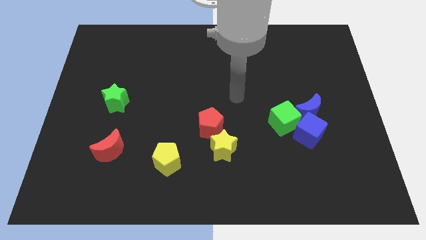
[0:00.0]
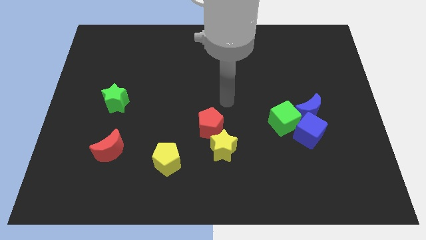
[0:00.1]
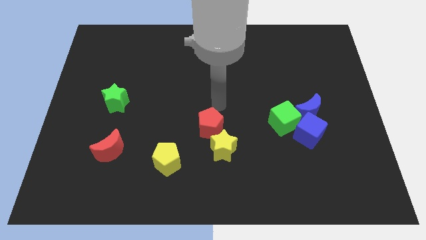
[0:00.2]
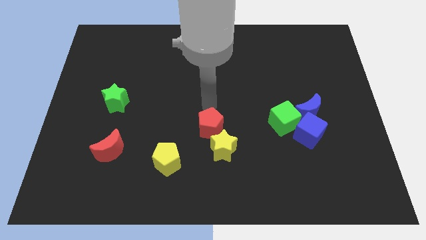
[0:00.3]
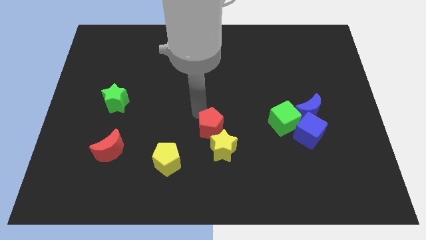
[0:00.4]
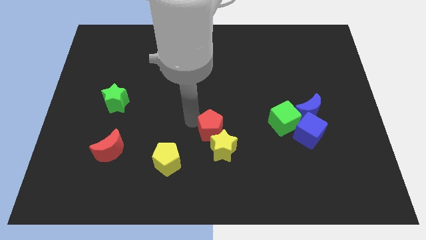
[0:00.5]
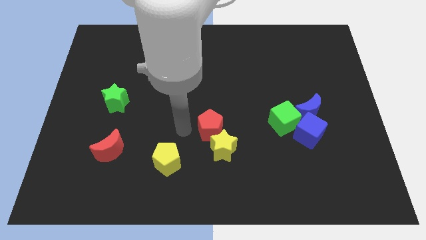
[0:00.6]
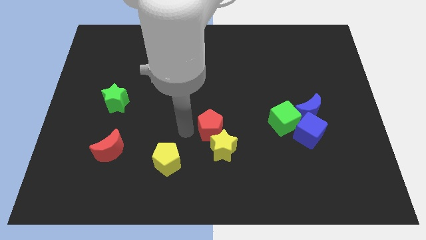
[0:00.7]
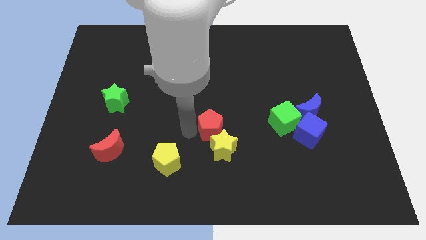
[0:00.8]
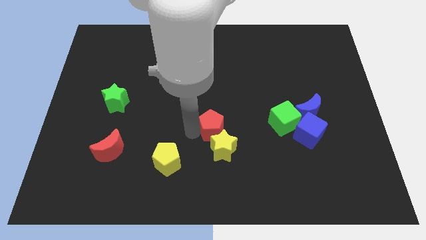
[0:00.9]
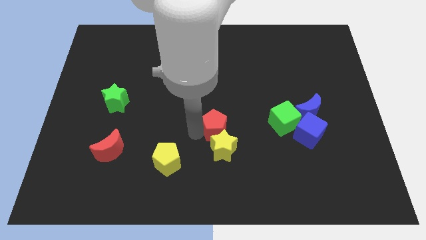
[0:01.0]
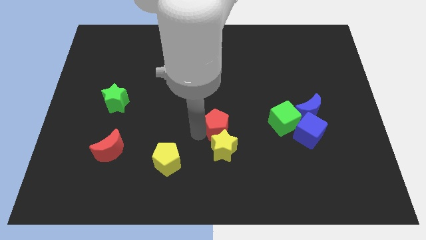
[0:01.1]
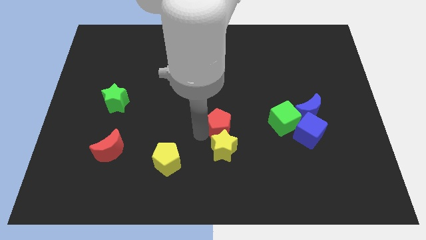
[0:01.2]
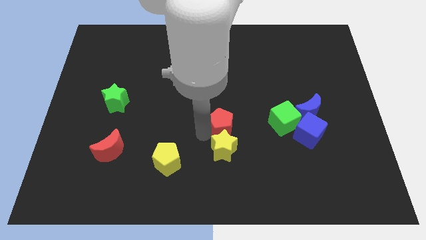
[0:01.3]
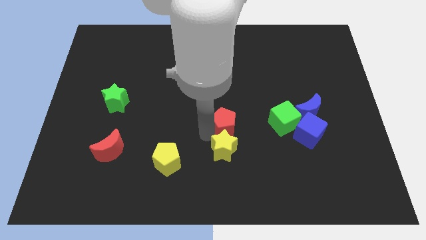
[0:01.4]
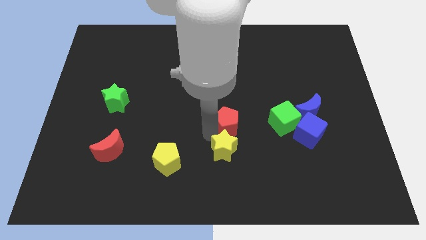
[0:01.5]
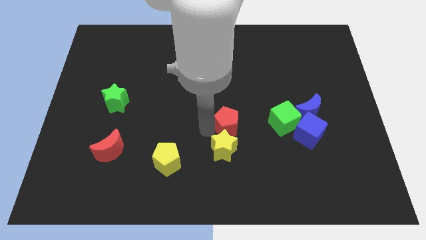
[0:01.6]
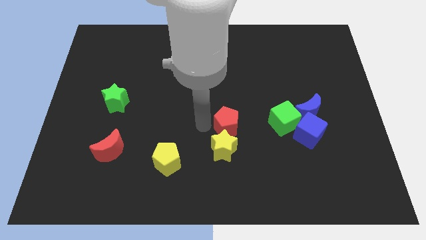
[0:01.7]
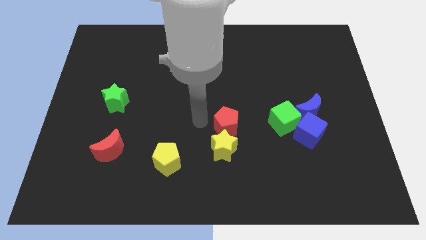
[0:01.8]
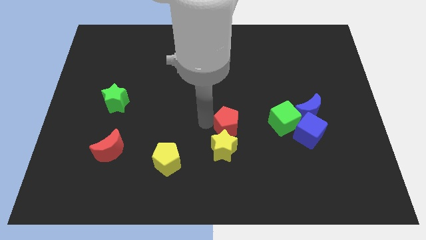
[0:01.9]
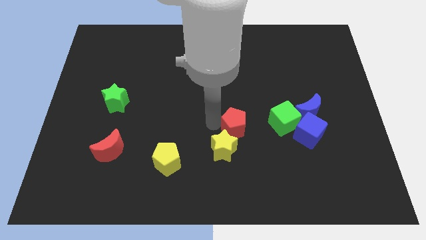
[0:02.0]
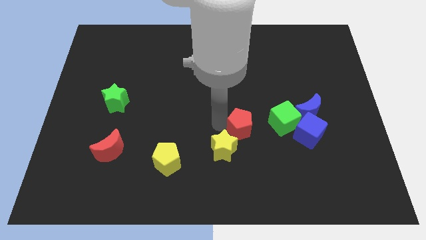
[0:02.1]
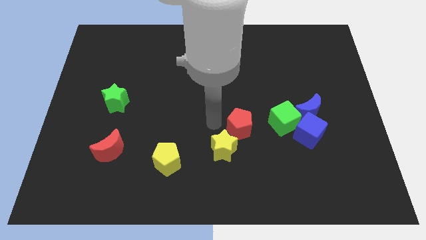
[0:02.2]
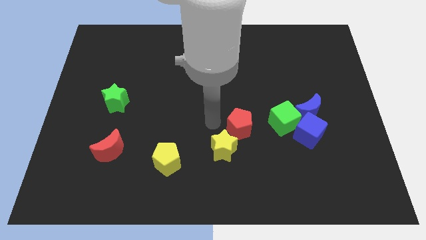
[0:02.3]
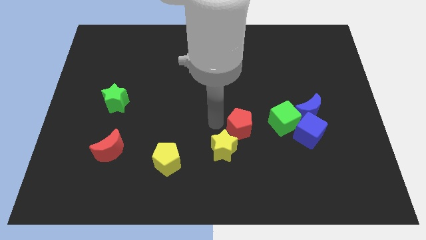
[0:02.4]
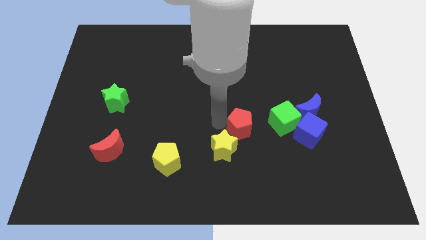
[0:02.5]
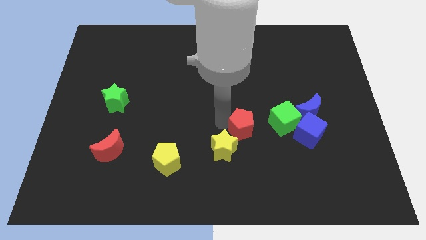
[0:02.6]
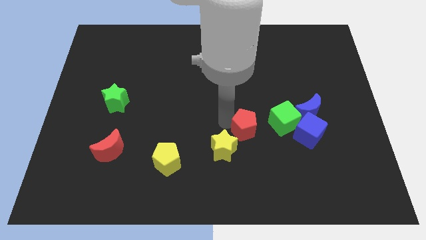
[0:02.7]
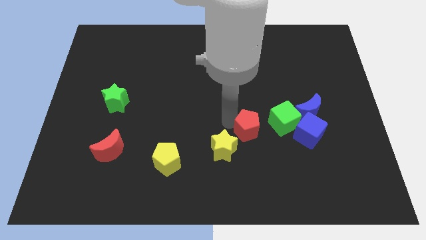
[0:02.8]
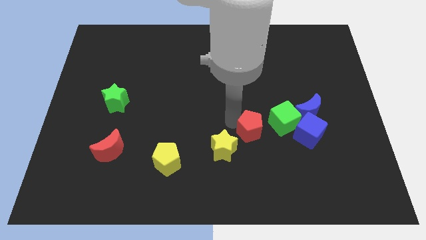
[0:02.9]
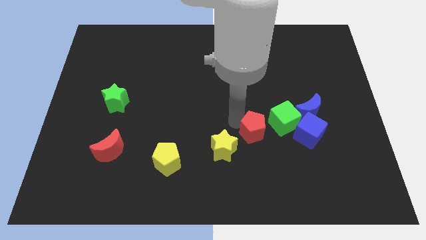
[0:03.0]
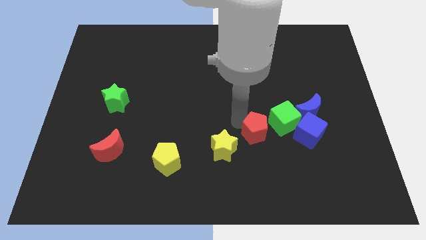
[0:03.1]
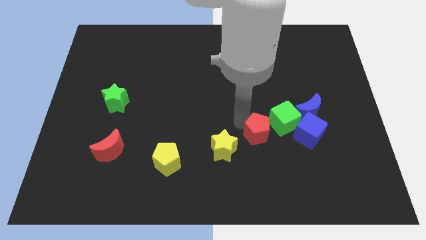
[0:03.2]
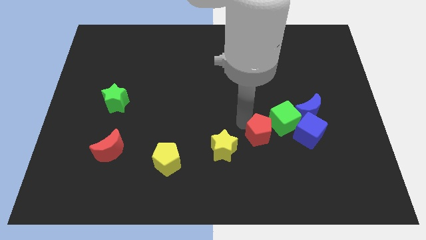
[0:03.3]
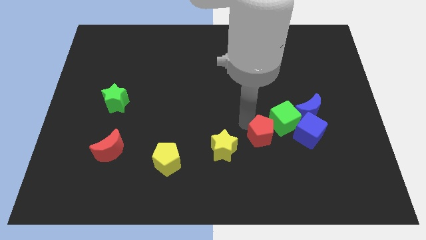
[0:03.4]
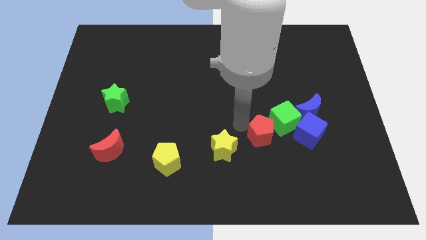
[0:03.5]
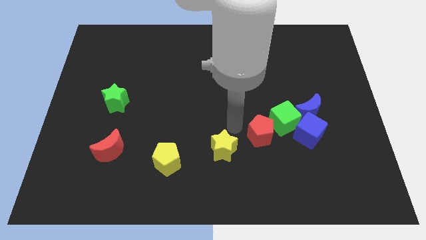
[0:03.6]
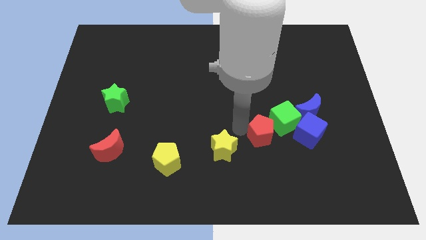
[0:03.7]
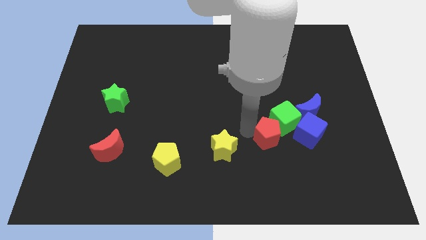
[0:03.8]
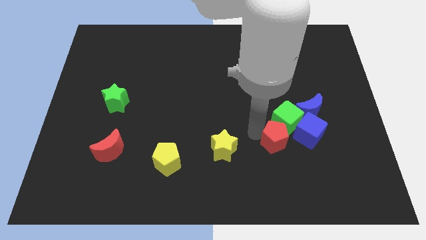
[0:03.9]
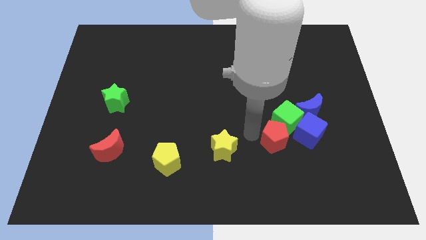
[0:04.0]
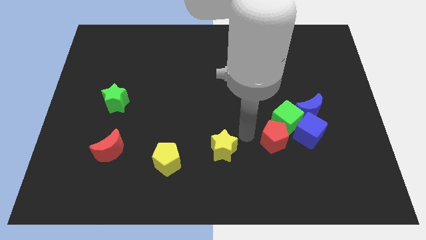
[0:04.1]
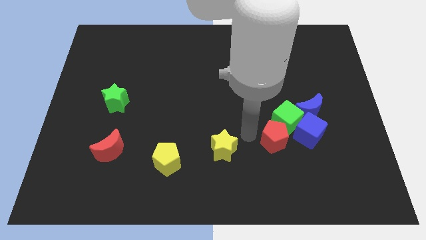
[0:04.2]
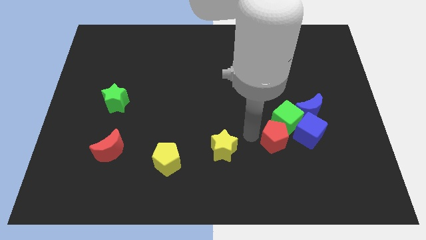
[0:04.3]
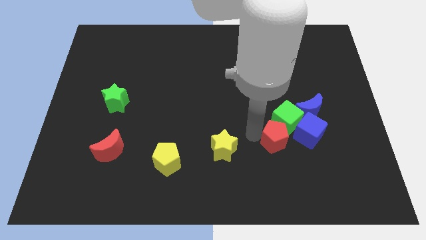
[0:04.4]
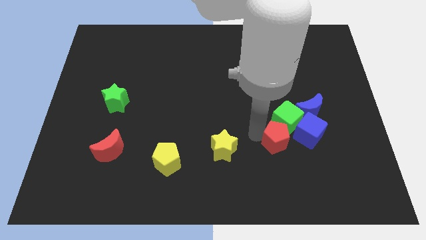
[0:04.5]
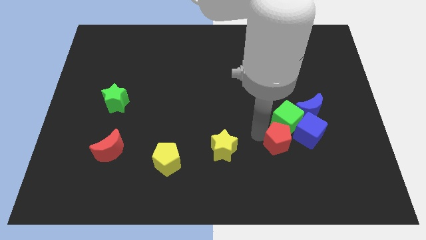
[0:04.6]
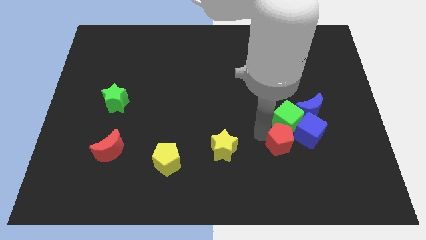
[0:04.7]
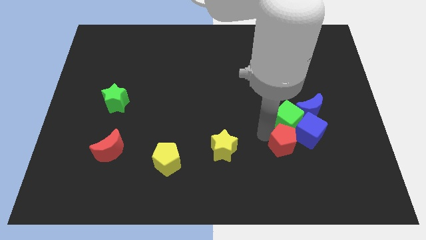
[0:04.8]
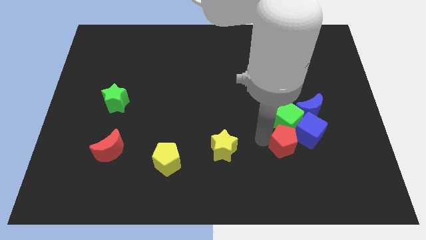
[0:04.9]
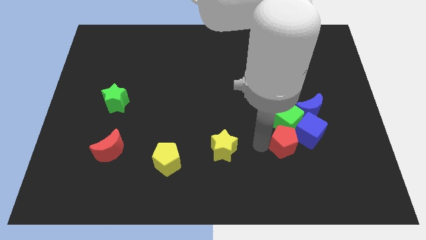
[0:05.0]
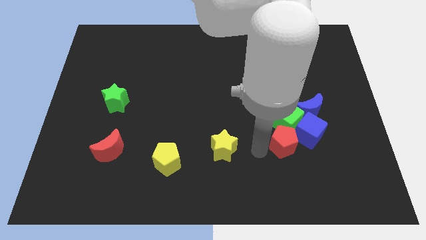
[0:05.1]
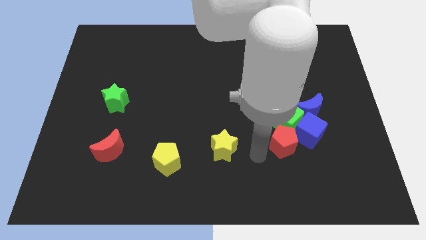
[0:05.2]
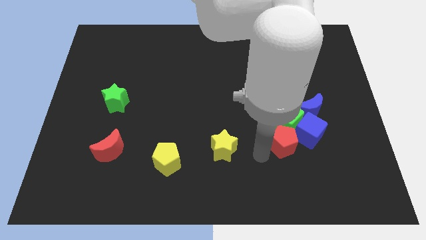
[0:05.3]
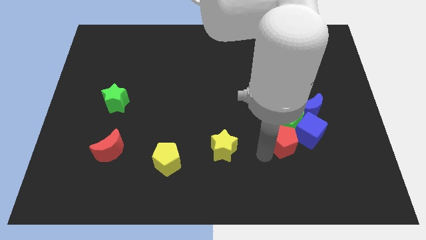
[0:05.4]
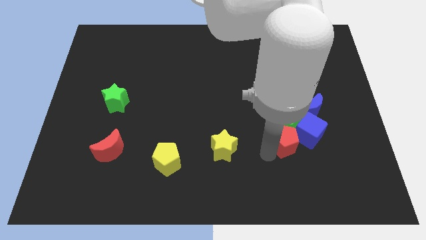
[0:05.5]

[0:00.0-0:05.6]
slide the red pentagon towards the blue cube

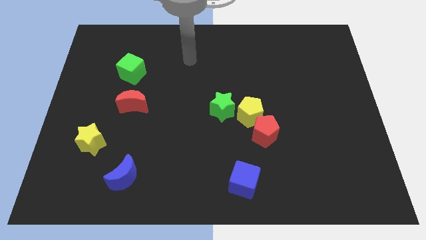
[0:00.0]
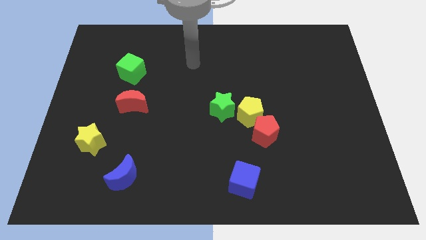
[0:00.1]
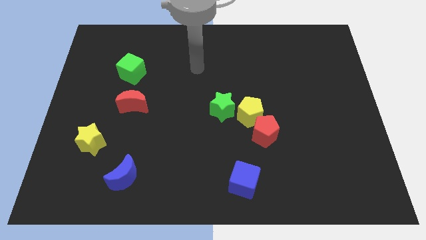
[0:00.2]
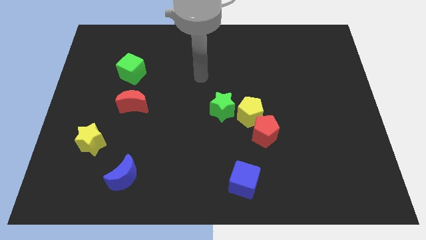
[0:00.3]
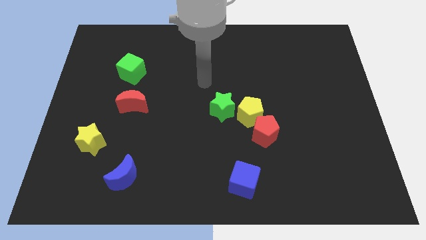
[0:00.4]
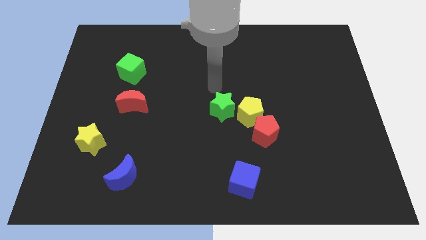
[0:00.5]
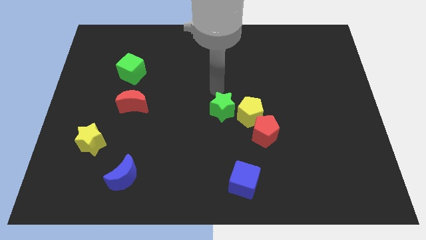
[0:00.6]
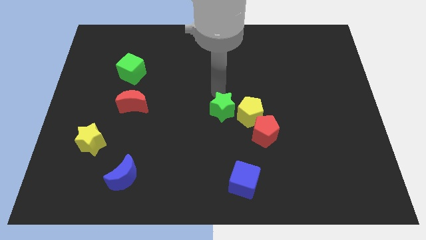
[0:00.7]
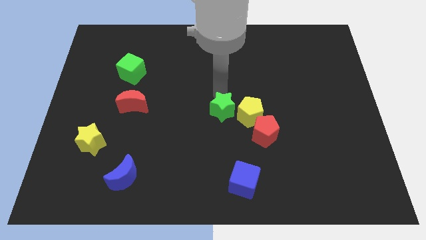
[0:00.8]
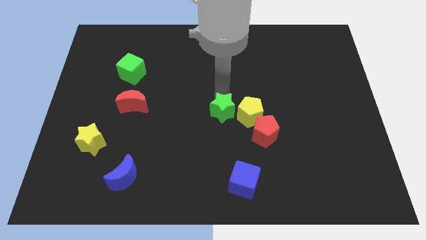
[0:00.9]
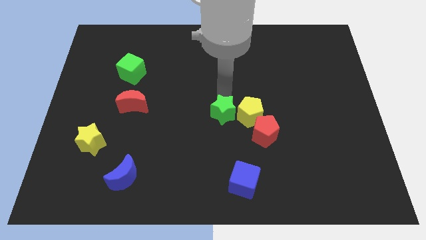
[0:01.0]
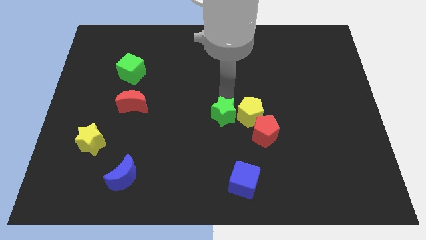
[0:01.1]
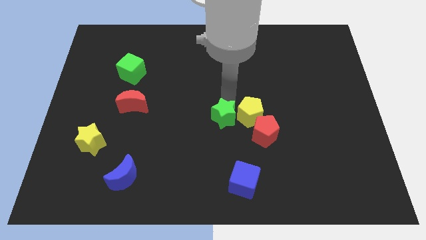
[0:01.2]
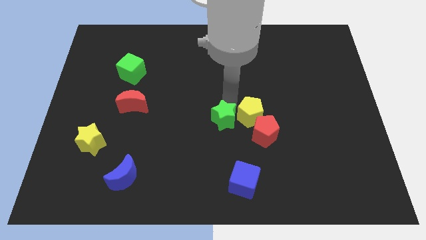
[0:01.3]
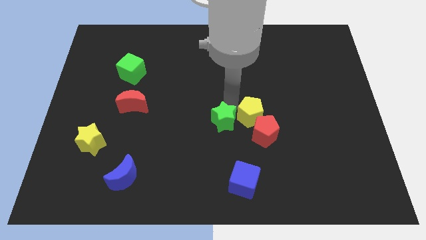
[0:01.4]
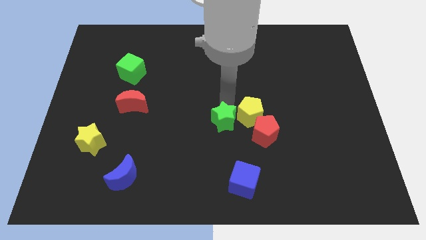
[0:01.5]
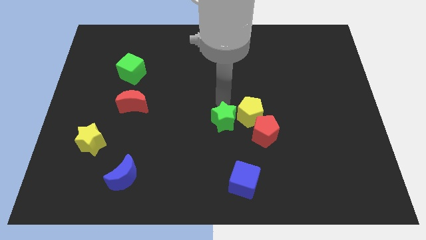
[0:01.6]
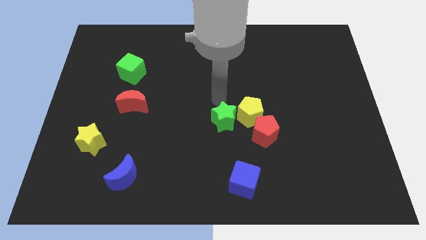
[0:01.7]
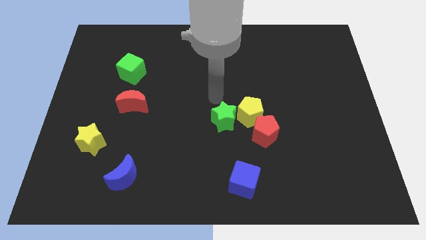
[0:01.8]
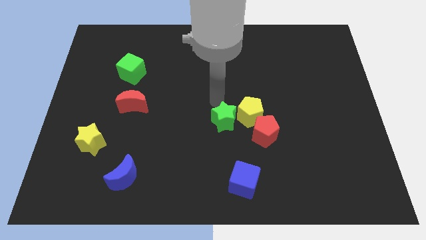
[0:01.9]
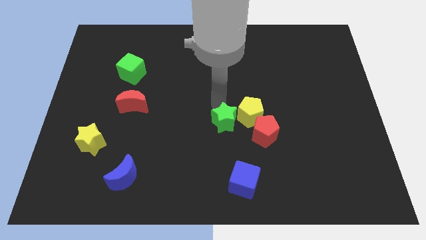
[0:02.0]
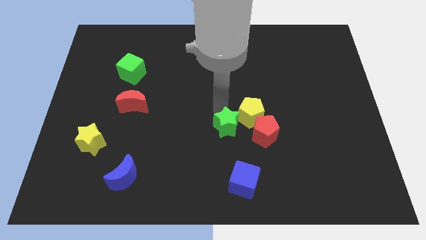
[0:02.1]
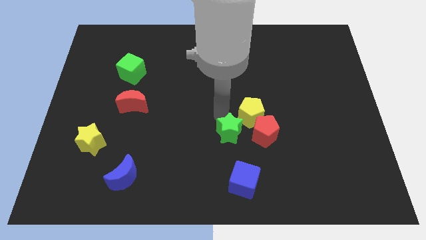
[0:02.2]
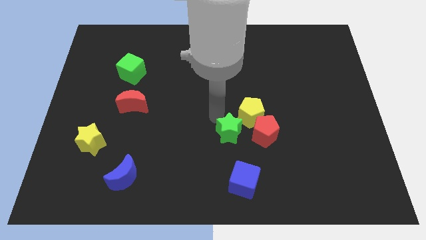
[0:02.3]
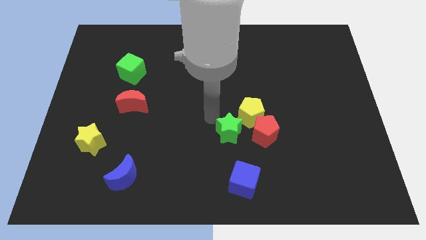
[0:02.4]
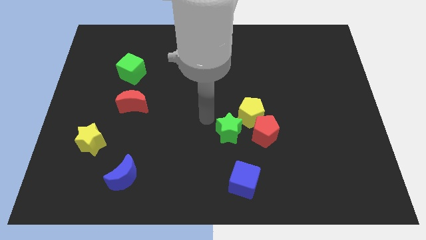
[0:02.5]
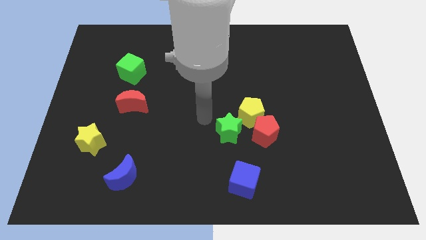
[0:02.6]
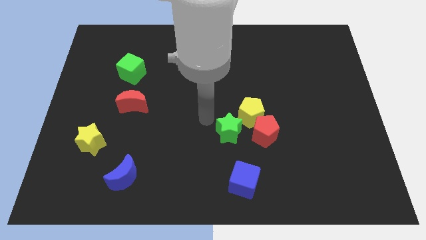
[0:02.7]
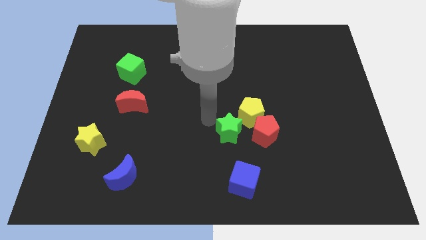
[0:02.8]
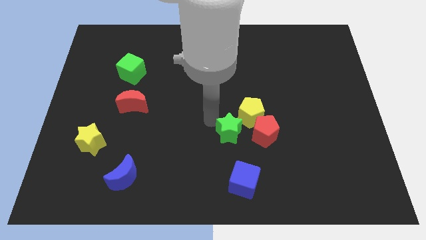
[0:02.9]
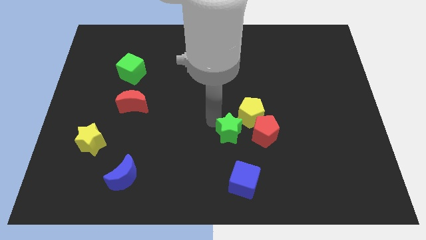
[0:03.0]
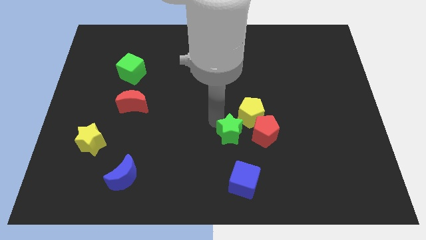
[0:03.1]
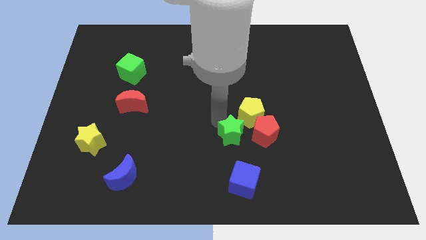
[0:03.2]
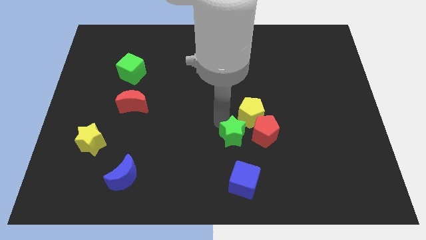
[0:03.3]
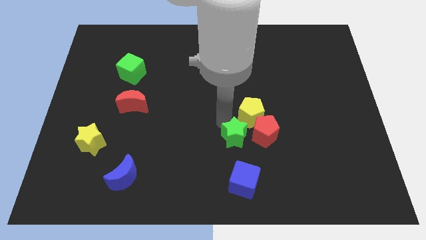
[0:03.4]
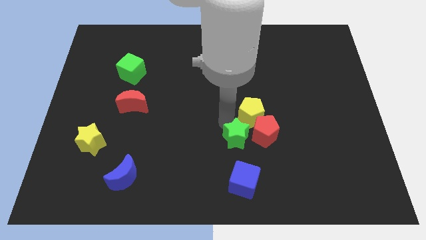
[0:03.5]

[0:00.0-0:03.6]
put the green star towards the red pentagon
